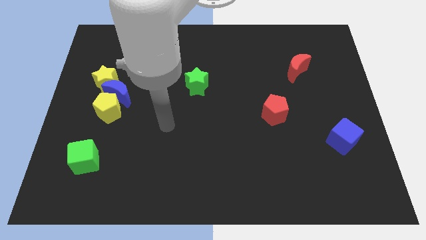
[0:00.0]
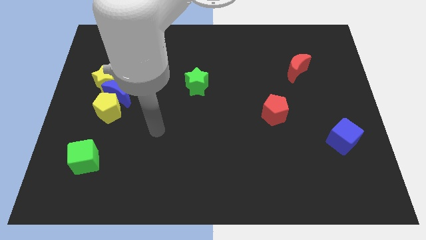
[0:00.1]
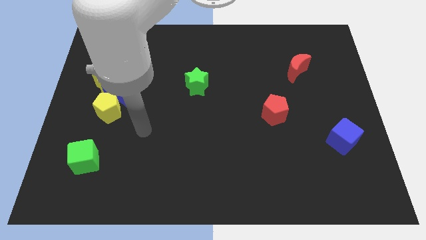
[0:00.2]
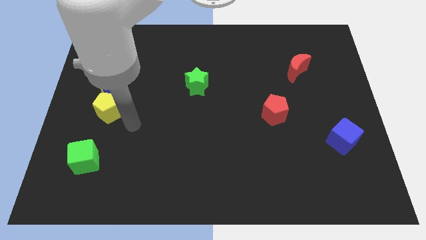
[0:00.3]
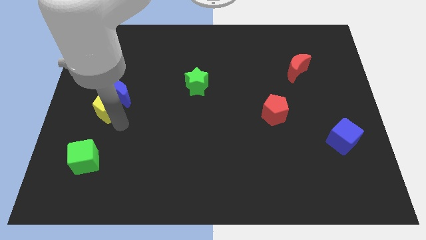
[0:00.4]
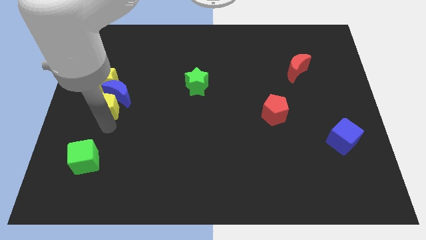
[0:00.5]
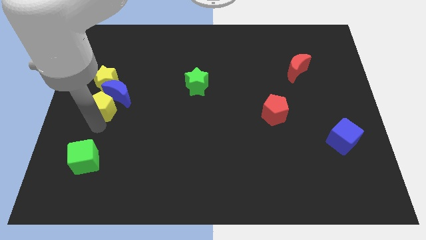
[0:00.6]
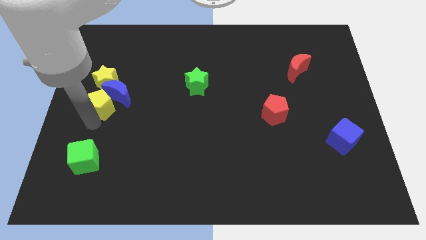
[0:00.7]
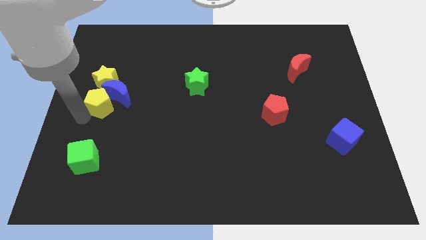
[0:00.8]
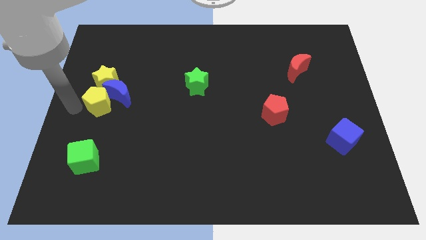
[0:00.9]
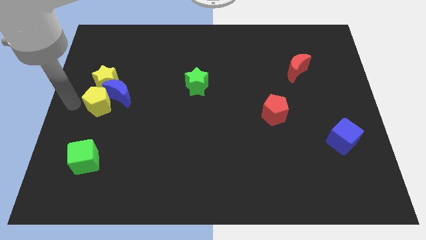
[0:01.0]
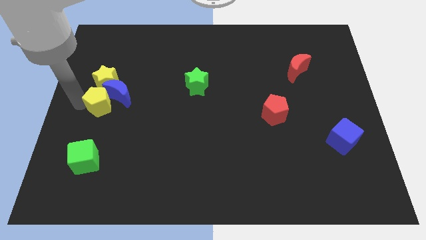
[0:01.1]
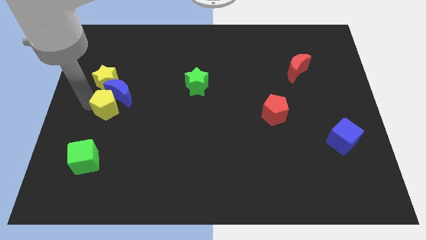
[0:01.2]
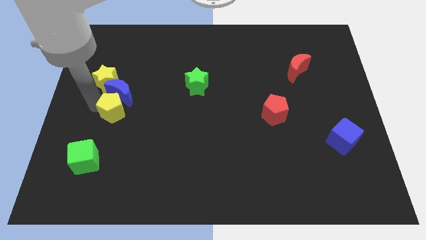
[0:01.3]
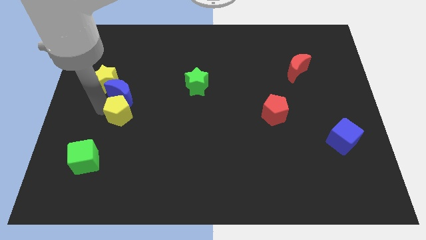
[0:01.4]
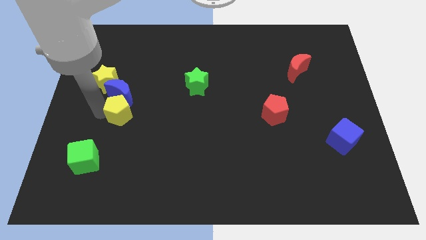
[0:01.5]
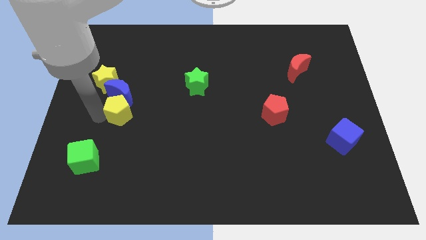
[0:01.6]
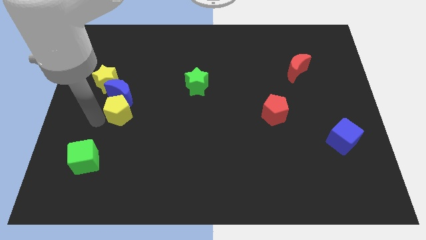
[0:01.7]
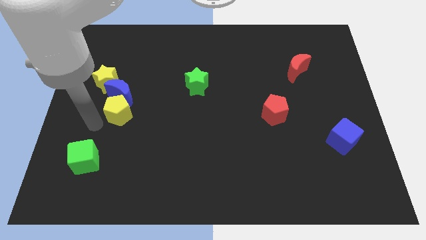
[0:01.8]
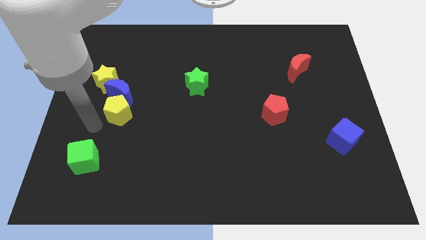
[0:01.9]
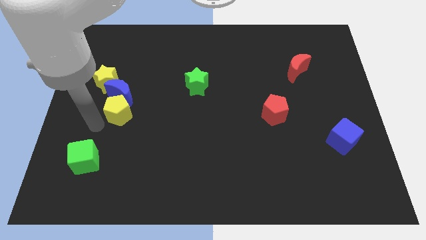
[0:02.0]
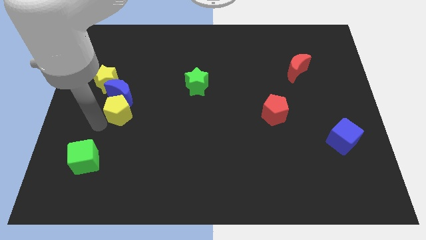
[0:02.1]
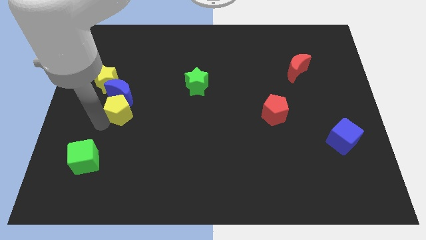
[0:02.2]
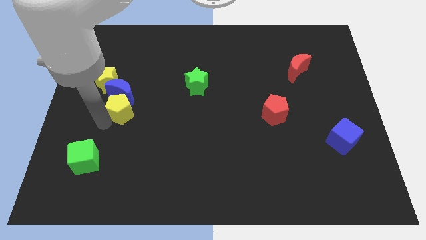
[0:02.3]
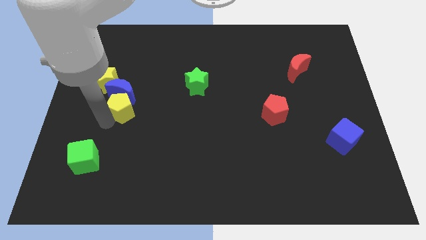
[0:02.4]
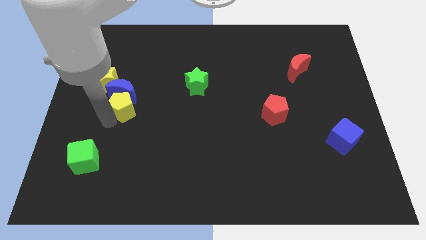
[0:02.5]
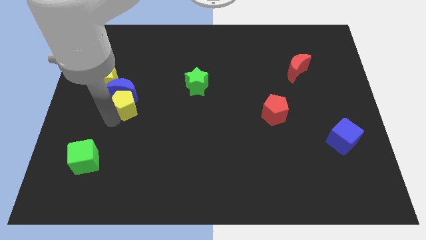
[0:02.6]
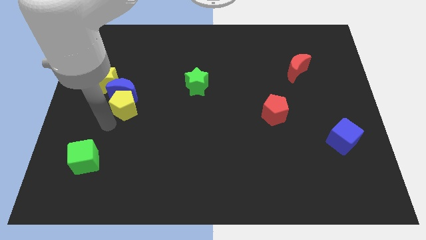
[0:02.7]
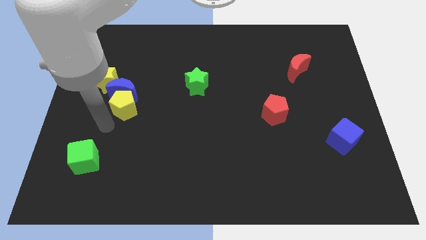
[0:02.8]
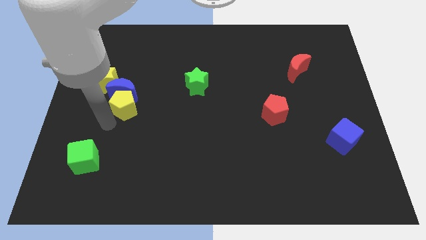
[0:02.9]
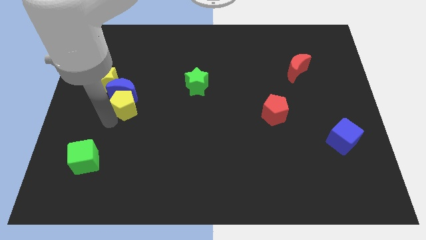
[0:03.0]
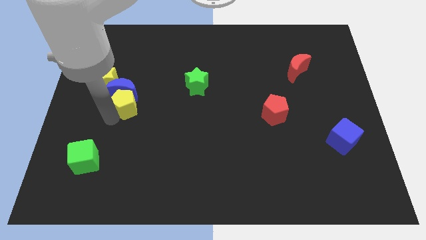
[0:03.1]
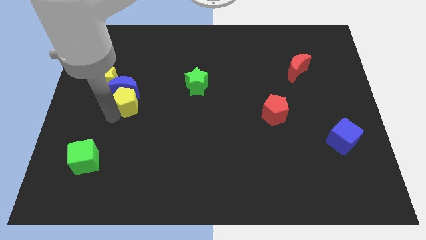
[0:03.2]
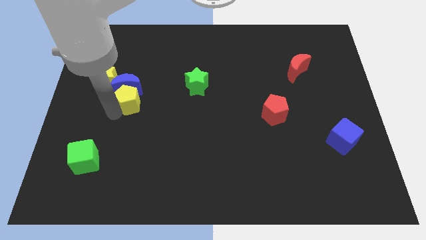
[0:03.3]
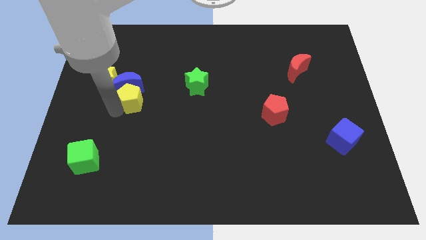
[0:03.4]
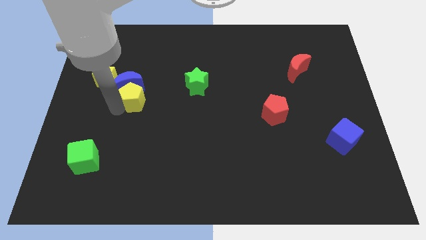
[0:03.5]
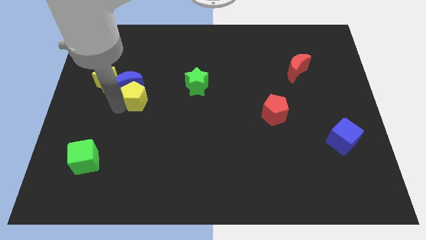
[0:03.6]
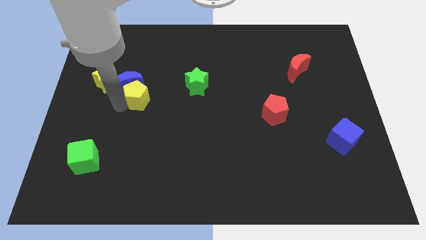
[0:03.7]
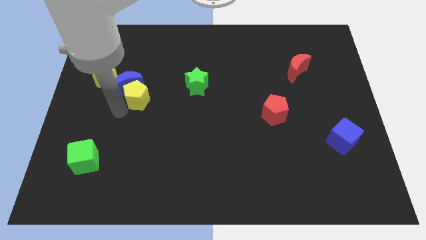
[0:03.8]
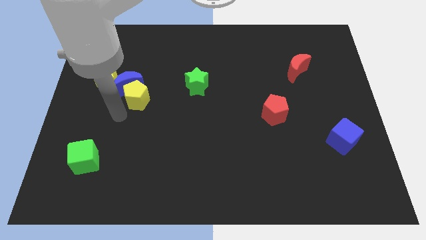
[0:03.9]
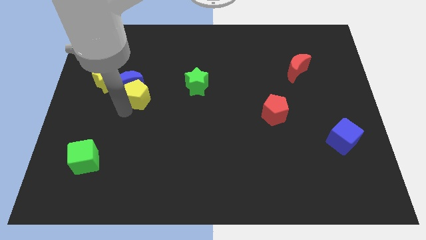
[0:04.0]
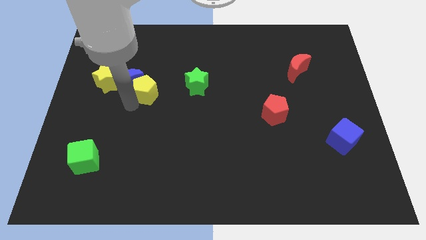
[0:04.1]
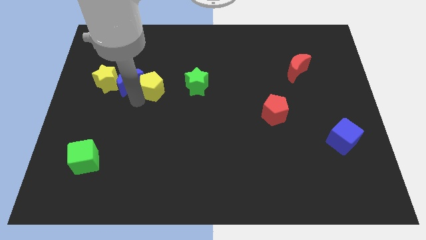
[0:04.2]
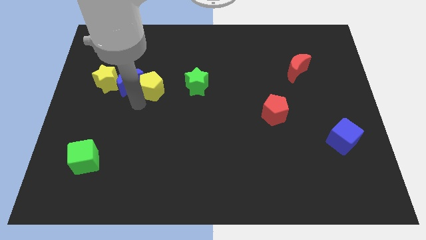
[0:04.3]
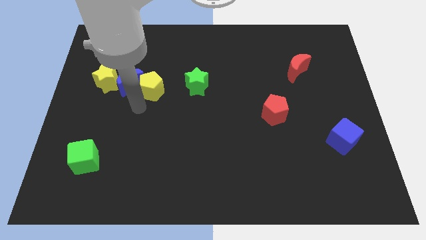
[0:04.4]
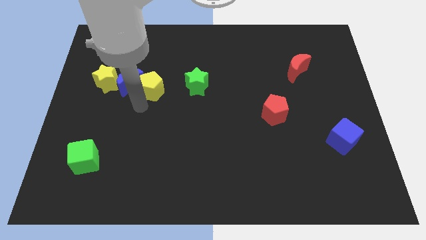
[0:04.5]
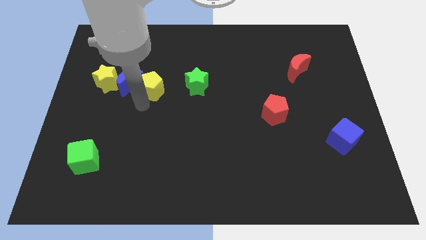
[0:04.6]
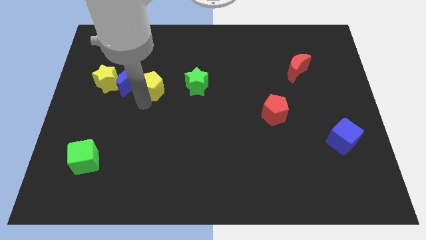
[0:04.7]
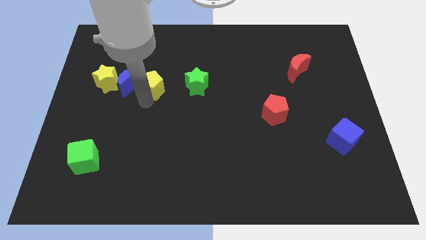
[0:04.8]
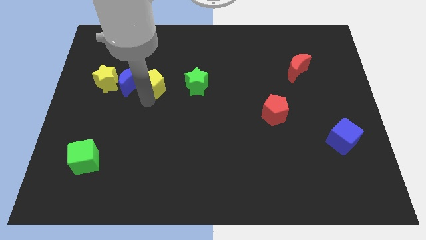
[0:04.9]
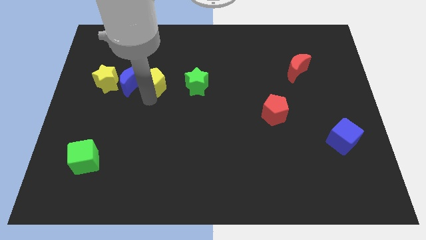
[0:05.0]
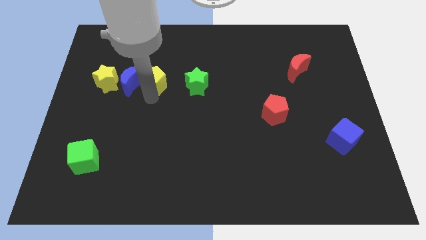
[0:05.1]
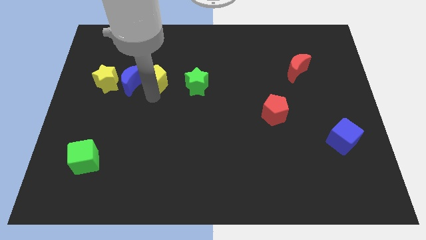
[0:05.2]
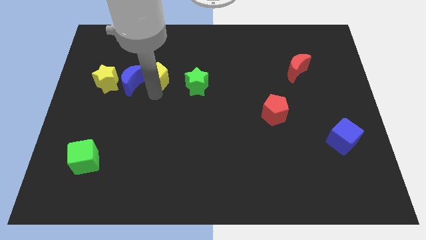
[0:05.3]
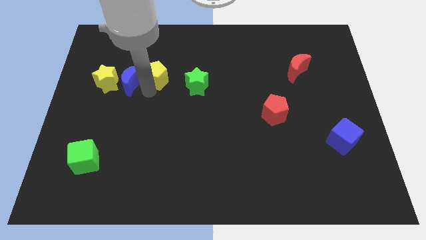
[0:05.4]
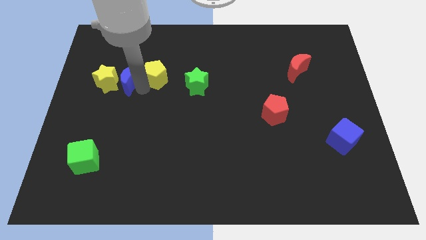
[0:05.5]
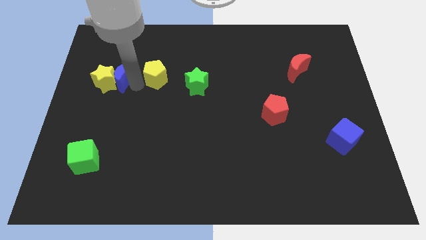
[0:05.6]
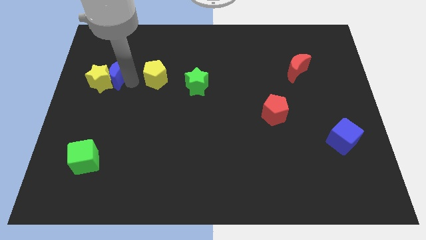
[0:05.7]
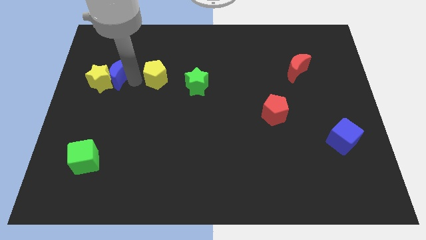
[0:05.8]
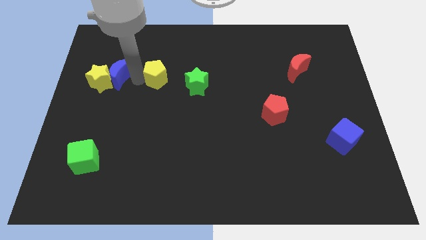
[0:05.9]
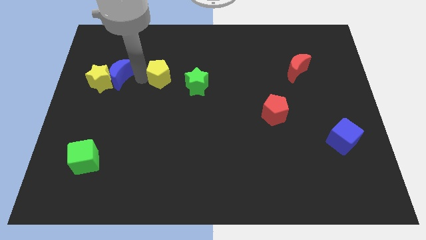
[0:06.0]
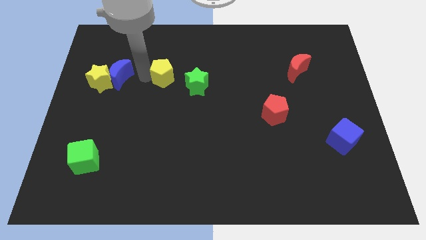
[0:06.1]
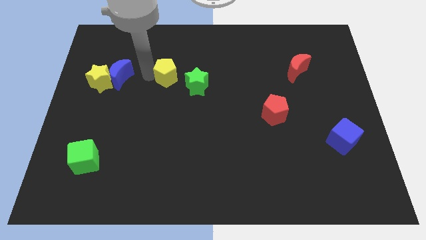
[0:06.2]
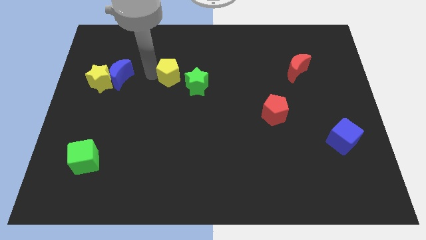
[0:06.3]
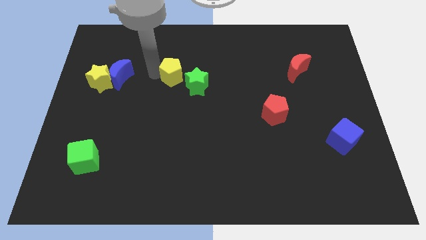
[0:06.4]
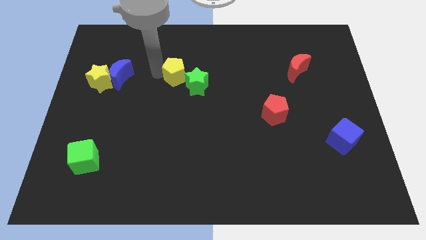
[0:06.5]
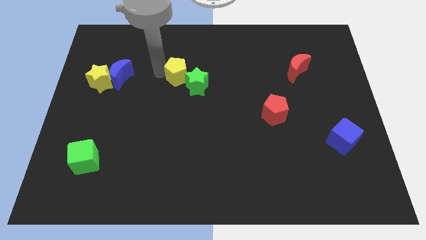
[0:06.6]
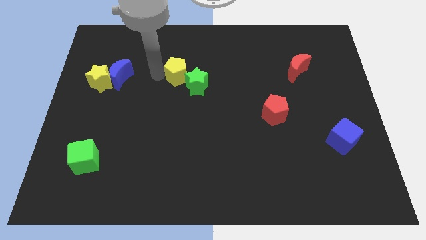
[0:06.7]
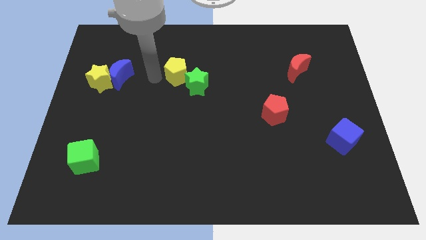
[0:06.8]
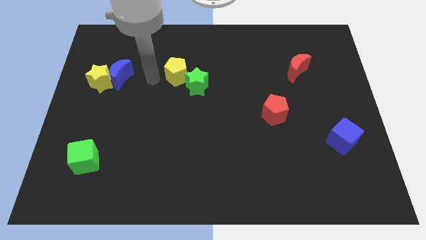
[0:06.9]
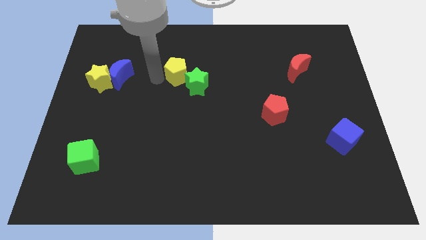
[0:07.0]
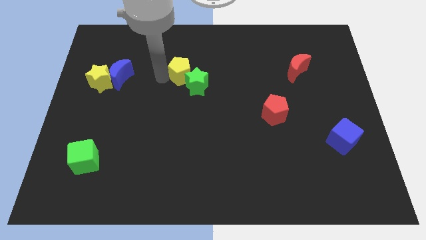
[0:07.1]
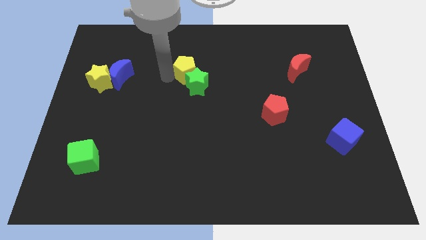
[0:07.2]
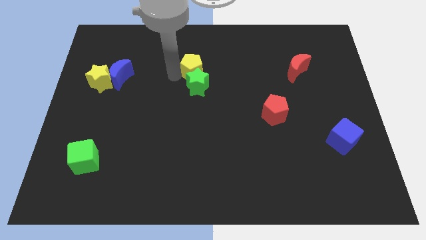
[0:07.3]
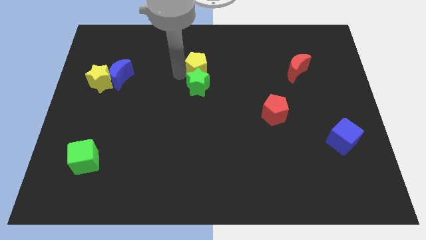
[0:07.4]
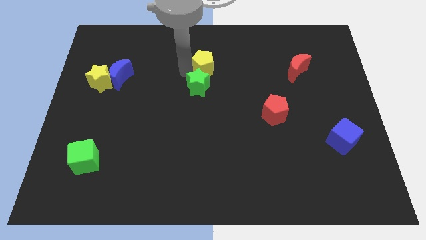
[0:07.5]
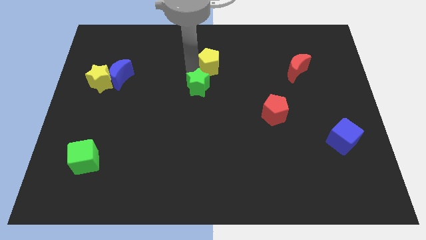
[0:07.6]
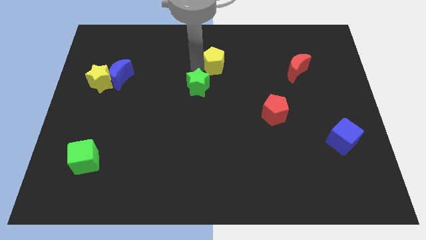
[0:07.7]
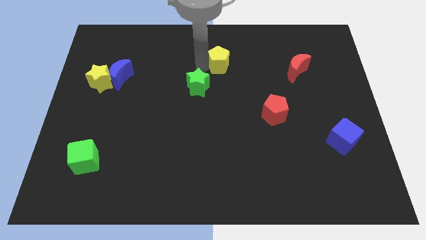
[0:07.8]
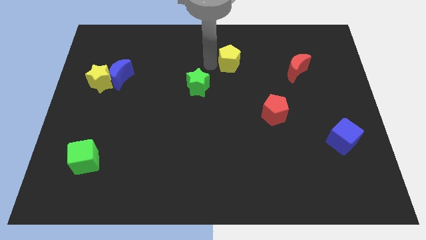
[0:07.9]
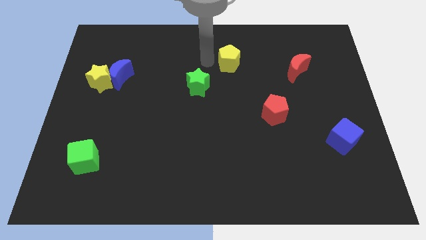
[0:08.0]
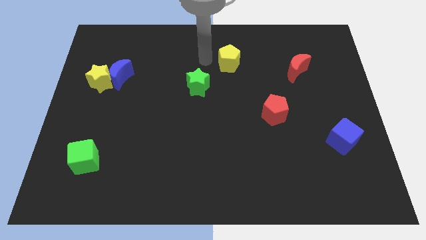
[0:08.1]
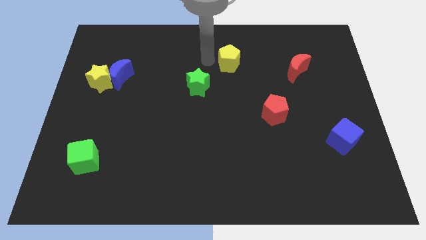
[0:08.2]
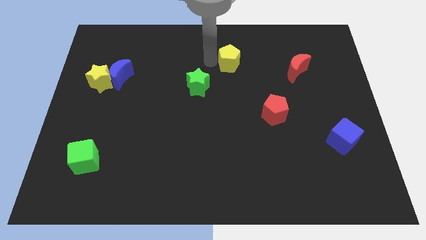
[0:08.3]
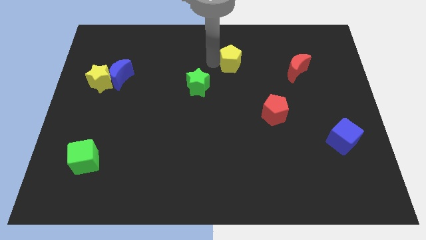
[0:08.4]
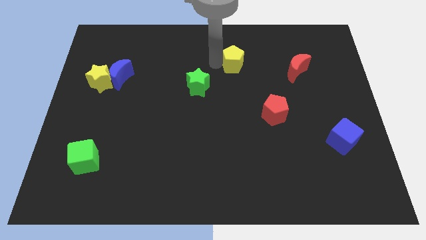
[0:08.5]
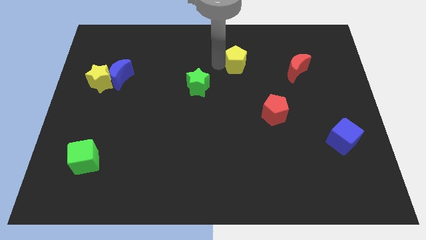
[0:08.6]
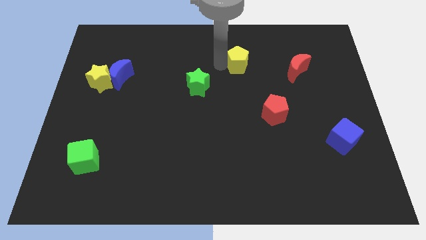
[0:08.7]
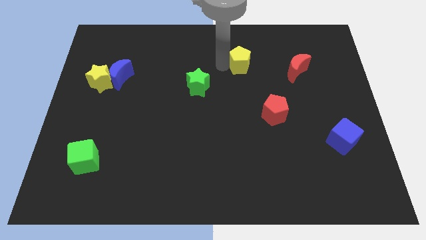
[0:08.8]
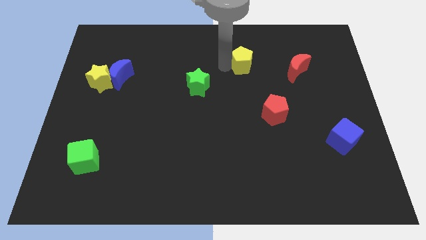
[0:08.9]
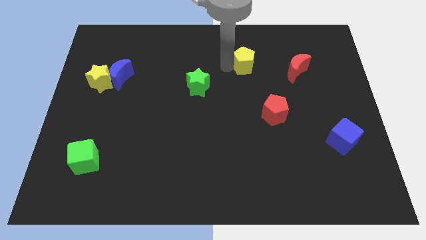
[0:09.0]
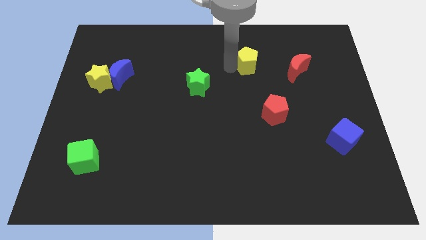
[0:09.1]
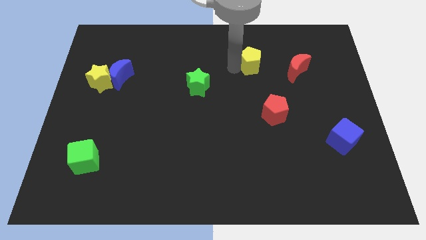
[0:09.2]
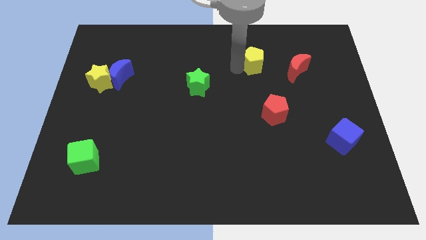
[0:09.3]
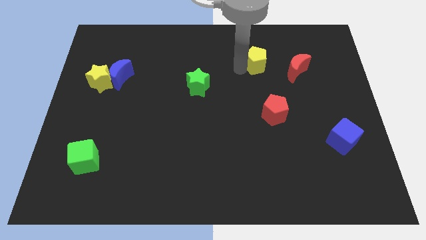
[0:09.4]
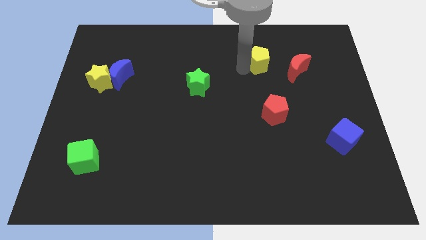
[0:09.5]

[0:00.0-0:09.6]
slide the yellow pentagon diagonally up and to the left of the red moon
